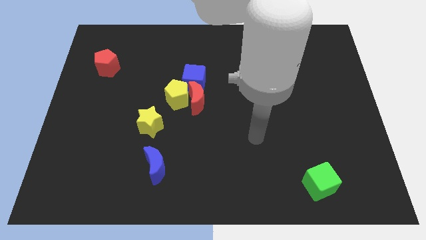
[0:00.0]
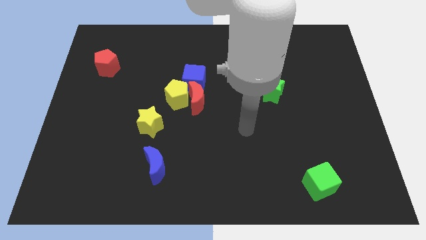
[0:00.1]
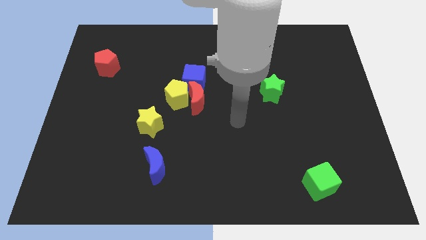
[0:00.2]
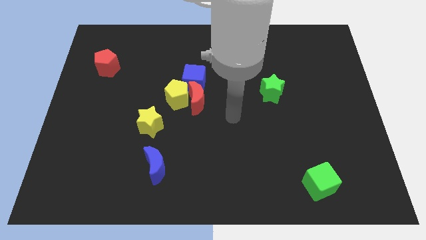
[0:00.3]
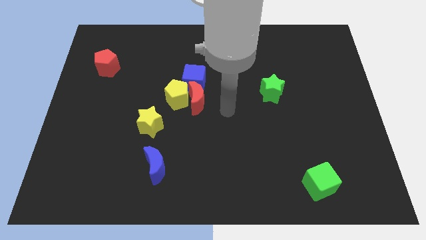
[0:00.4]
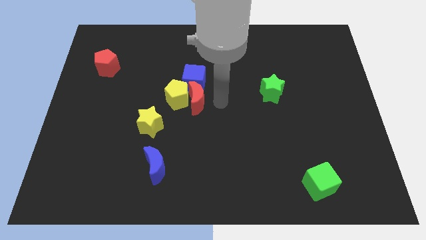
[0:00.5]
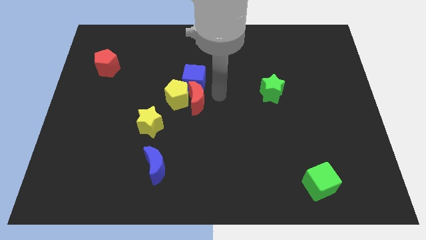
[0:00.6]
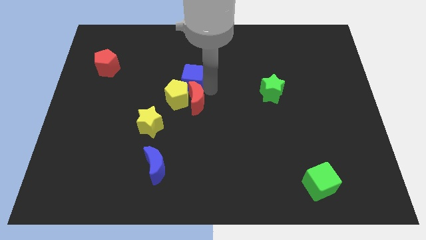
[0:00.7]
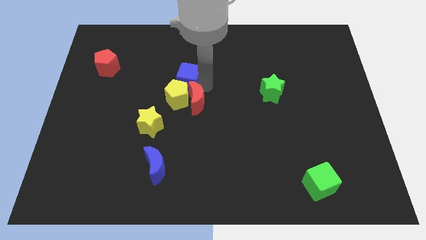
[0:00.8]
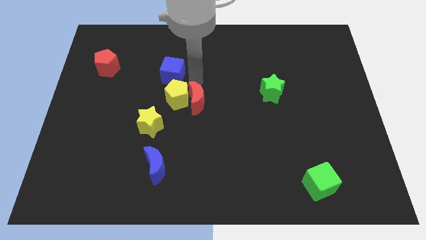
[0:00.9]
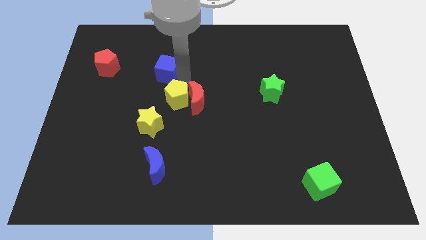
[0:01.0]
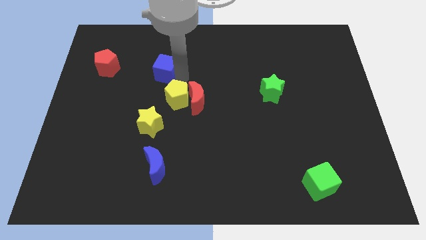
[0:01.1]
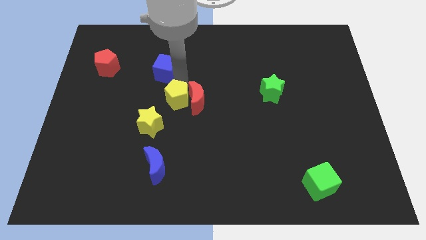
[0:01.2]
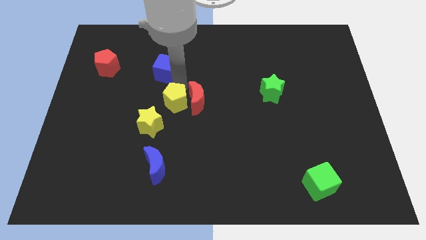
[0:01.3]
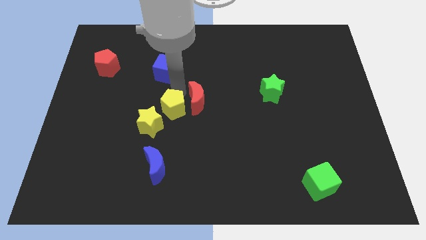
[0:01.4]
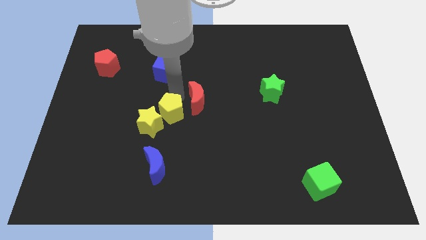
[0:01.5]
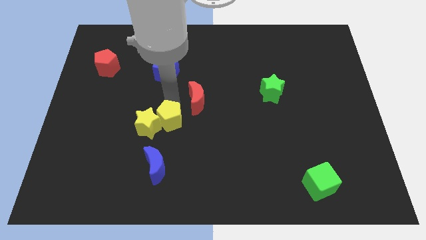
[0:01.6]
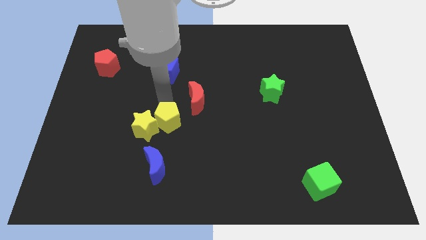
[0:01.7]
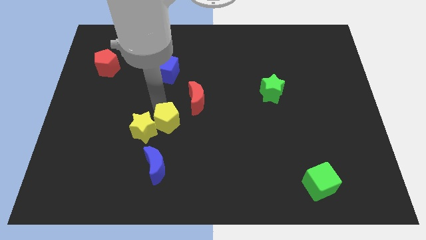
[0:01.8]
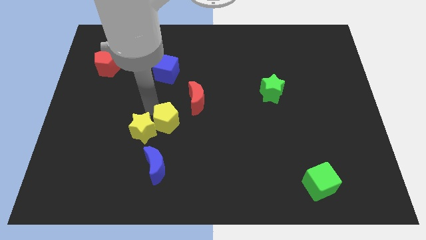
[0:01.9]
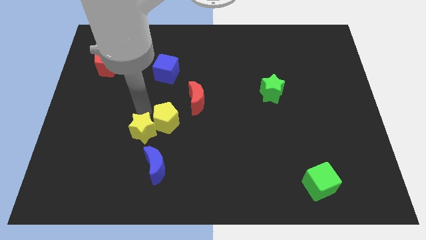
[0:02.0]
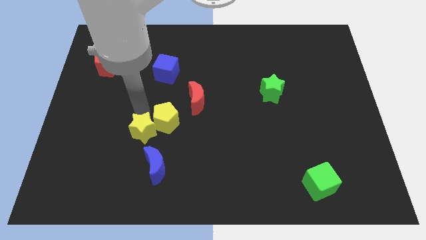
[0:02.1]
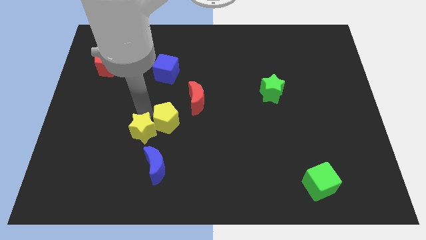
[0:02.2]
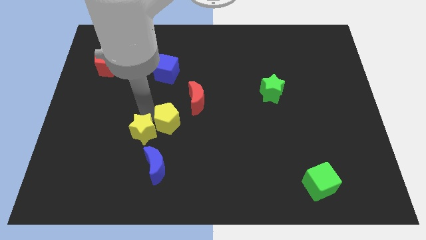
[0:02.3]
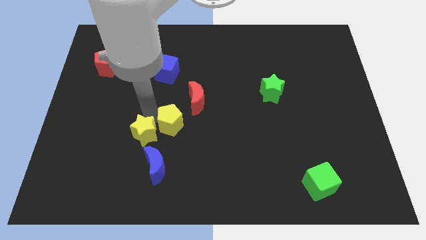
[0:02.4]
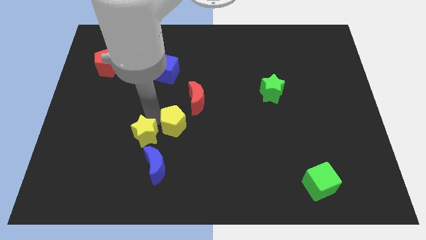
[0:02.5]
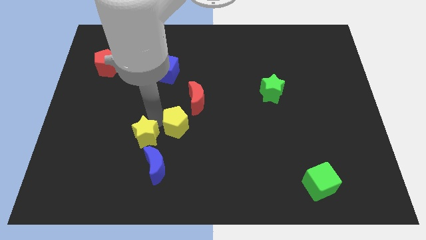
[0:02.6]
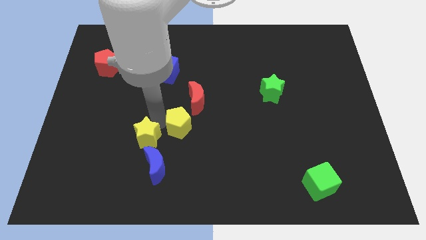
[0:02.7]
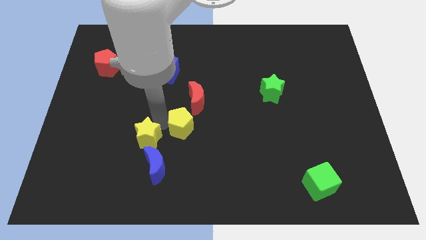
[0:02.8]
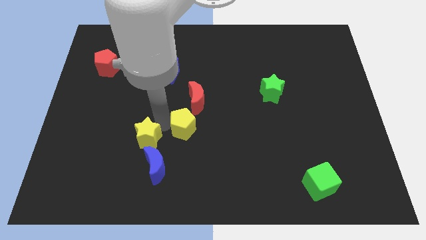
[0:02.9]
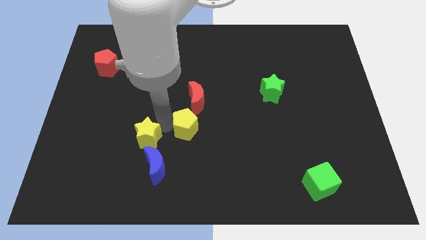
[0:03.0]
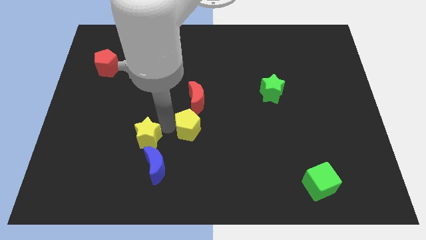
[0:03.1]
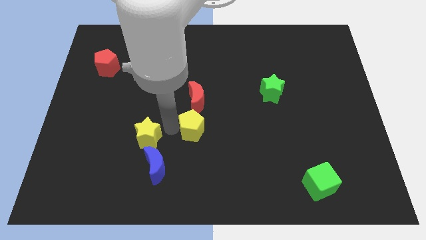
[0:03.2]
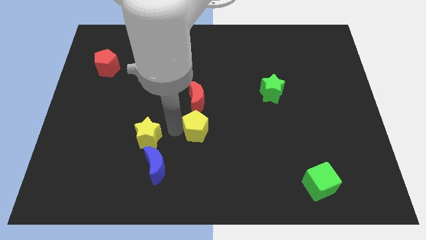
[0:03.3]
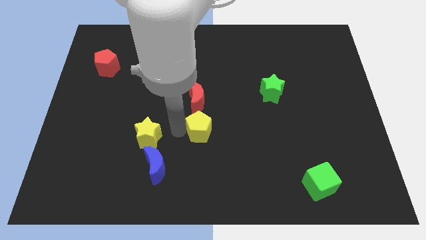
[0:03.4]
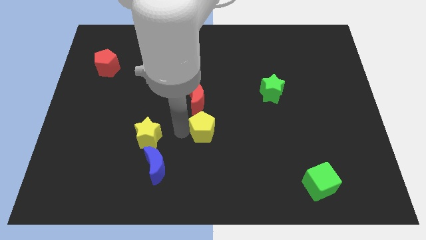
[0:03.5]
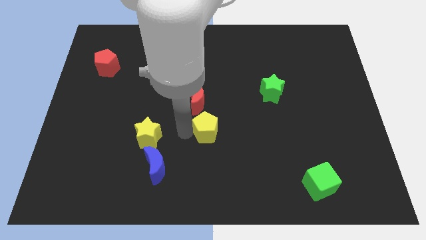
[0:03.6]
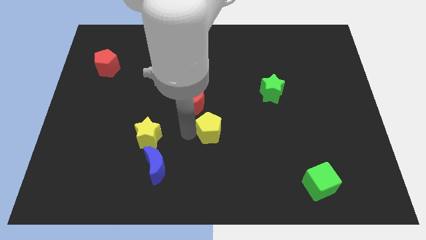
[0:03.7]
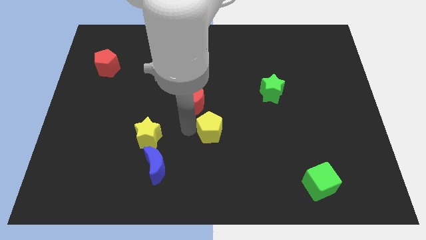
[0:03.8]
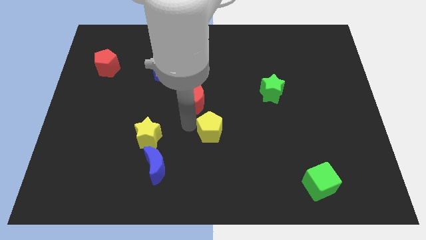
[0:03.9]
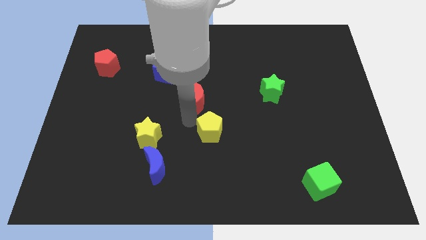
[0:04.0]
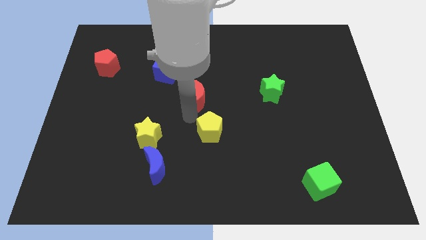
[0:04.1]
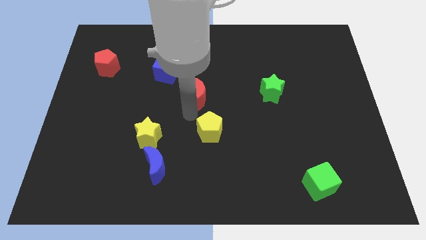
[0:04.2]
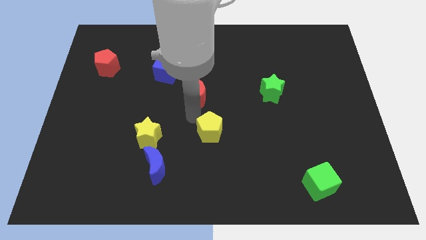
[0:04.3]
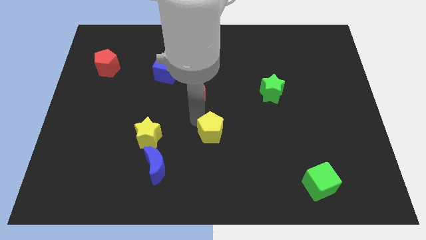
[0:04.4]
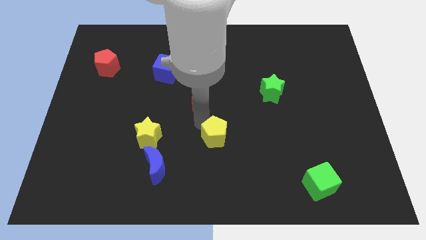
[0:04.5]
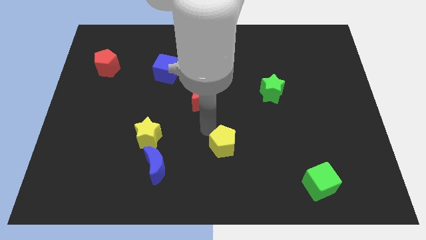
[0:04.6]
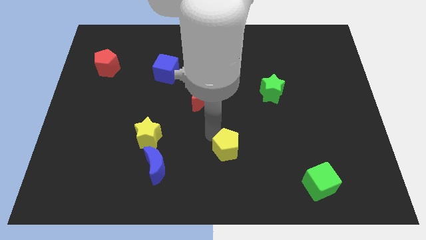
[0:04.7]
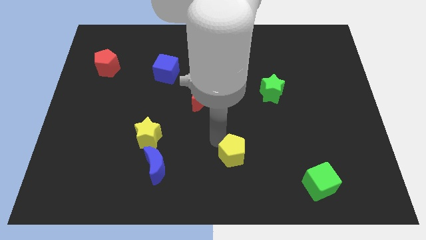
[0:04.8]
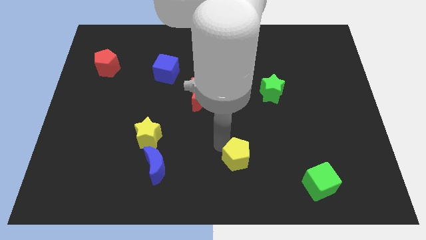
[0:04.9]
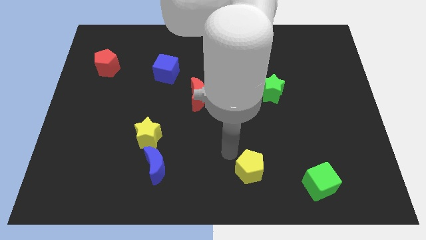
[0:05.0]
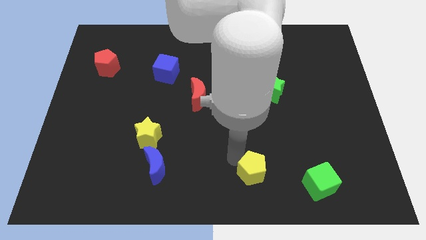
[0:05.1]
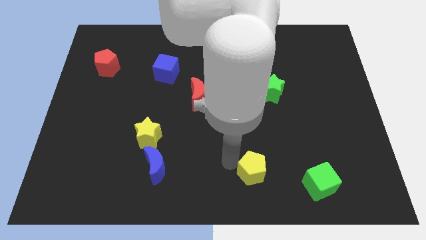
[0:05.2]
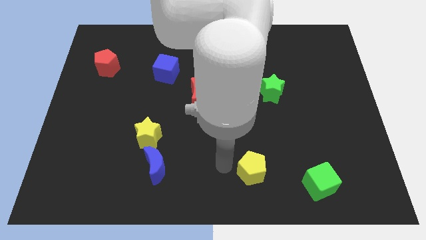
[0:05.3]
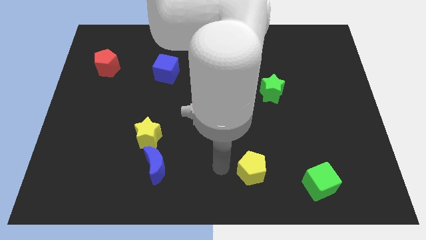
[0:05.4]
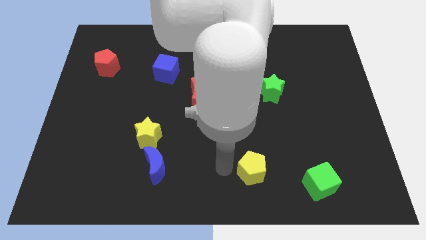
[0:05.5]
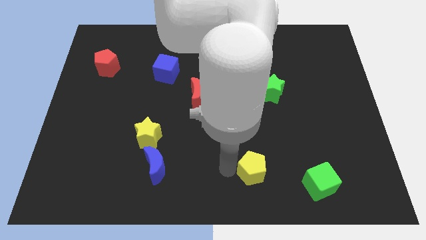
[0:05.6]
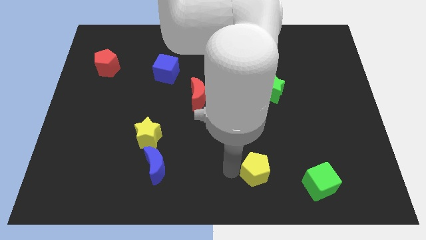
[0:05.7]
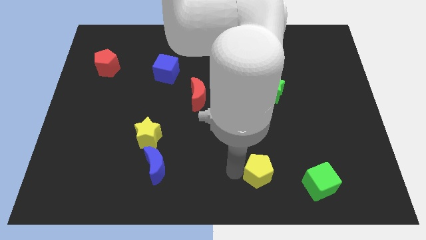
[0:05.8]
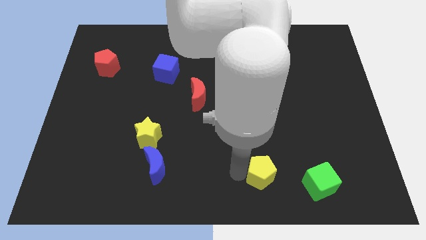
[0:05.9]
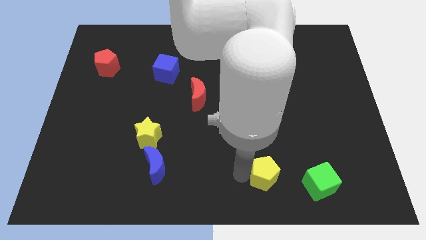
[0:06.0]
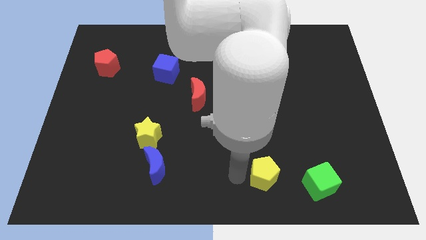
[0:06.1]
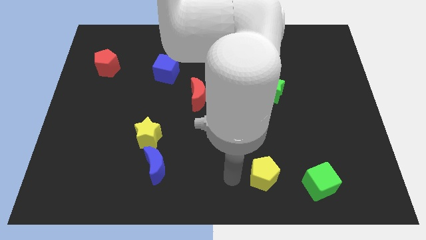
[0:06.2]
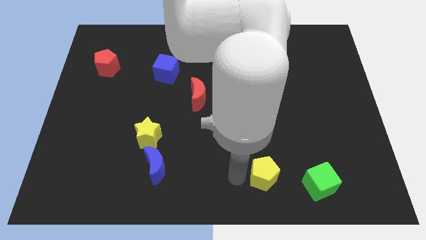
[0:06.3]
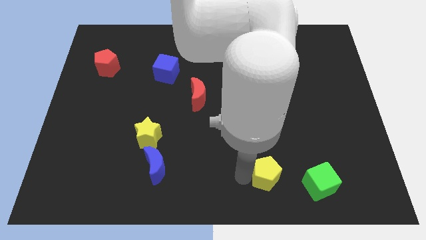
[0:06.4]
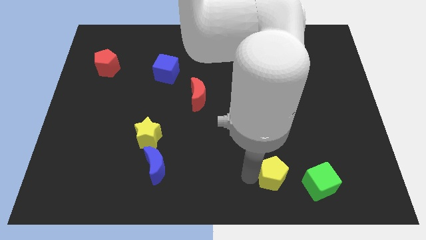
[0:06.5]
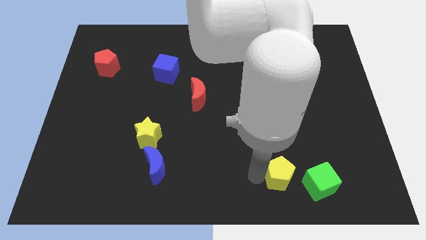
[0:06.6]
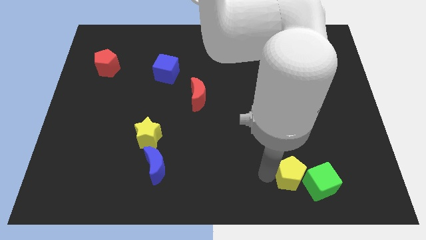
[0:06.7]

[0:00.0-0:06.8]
move the yellow pentagon towards the green cube

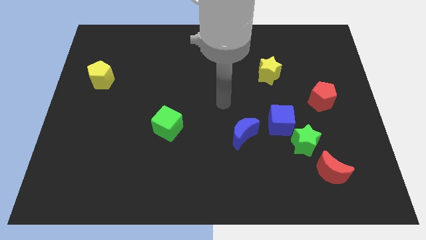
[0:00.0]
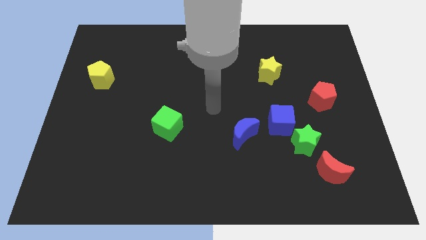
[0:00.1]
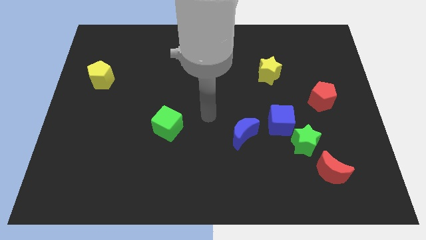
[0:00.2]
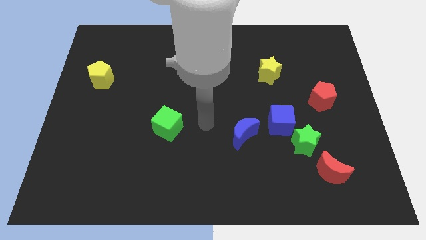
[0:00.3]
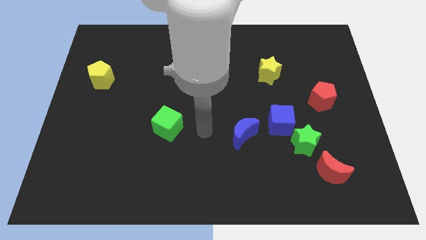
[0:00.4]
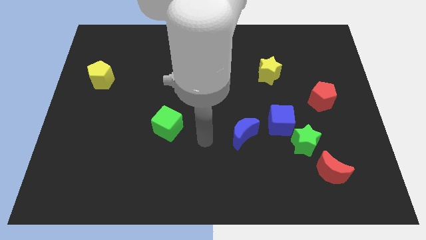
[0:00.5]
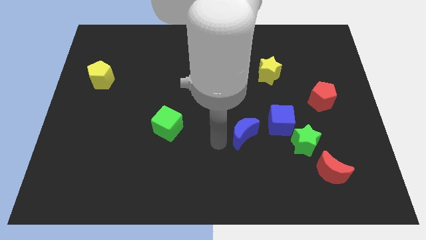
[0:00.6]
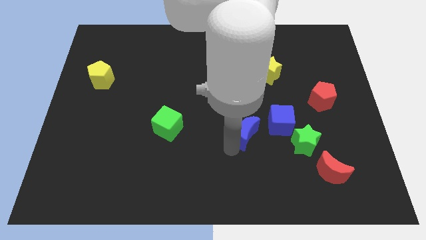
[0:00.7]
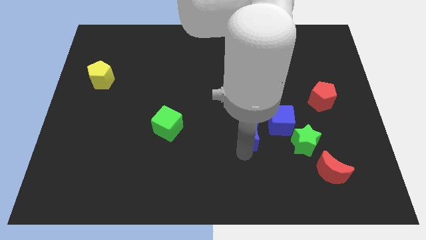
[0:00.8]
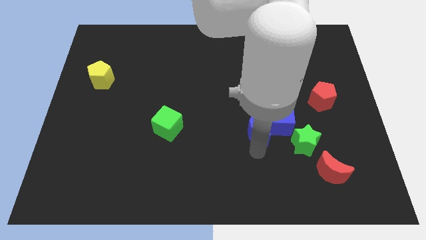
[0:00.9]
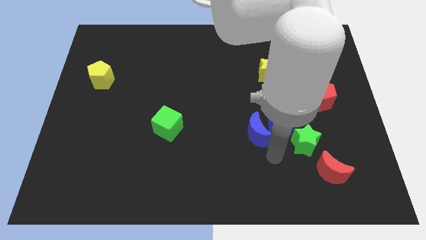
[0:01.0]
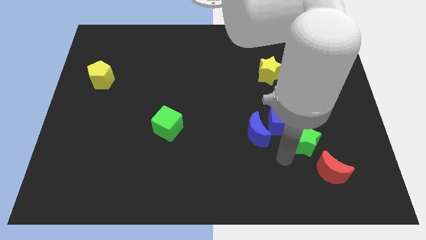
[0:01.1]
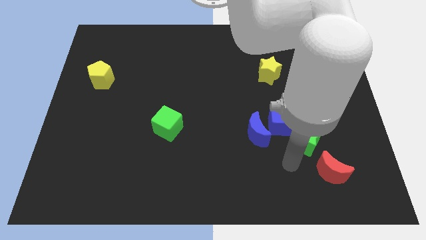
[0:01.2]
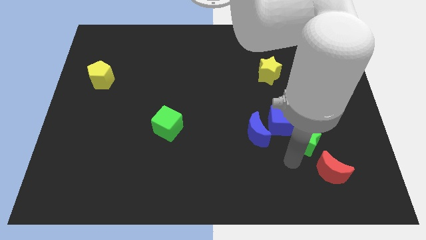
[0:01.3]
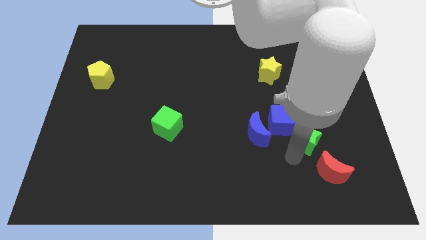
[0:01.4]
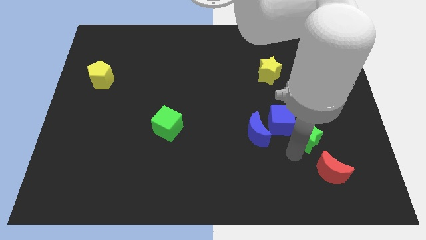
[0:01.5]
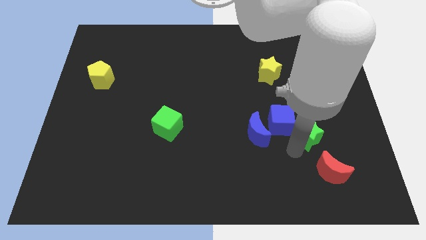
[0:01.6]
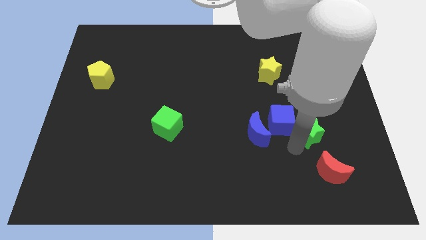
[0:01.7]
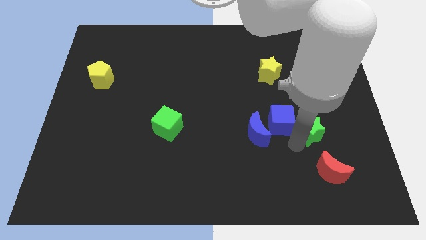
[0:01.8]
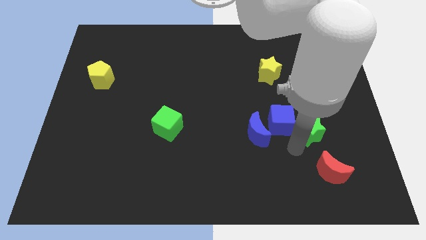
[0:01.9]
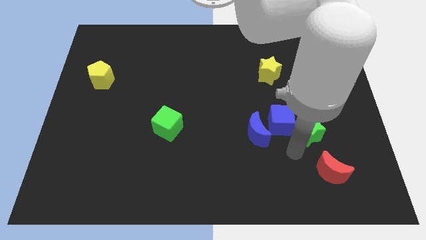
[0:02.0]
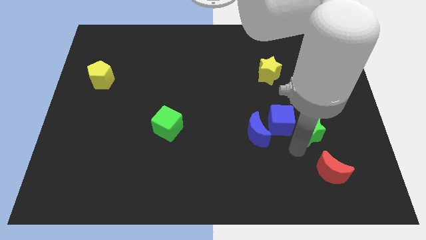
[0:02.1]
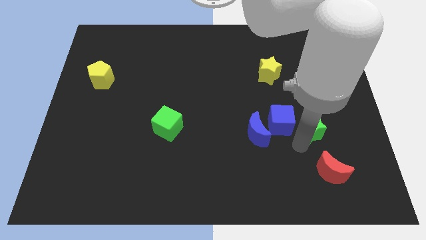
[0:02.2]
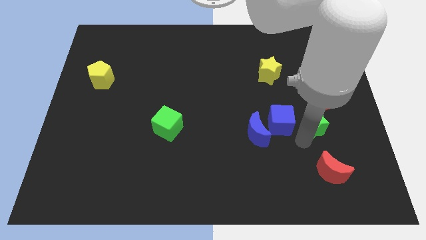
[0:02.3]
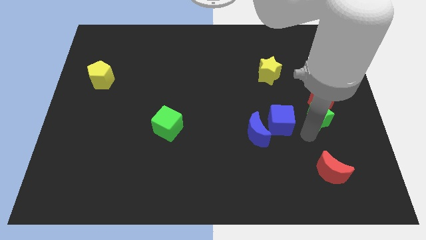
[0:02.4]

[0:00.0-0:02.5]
slide the green star next to the red pentagon
